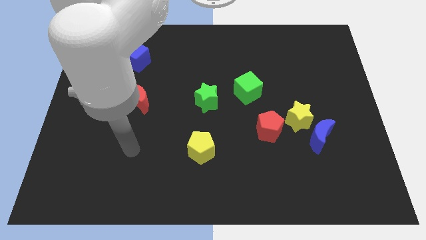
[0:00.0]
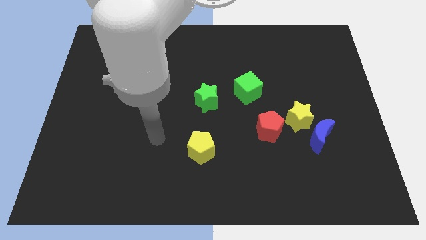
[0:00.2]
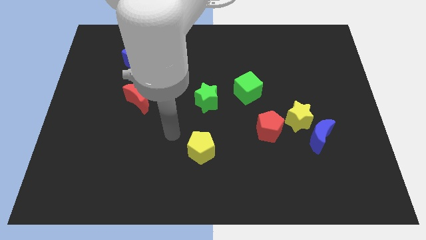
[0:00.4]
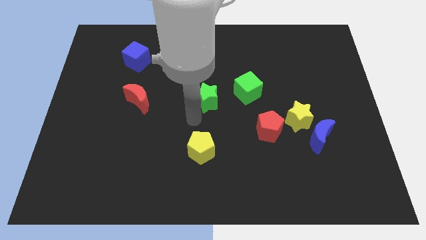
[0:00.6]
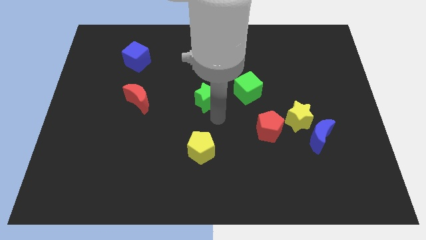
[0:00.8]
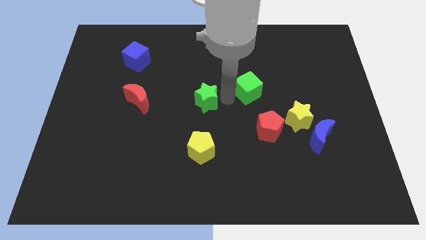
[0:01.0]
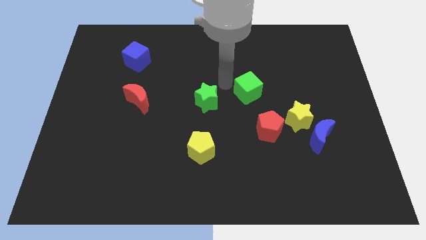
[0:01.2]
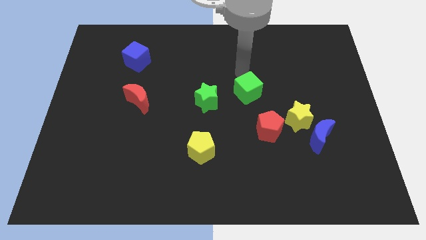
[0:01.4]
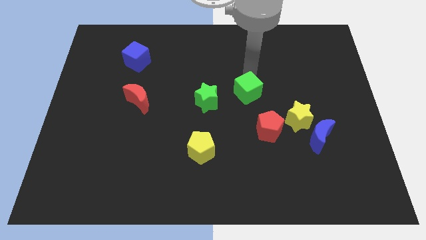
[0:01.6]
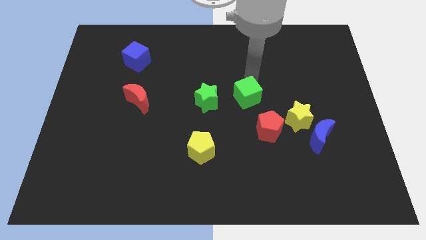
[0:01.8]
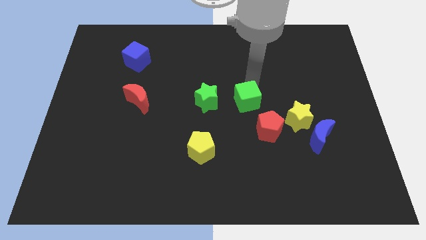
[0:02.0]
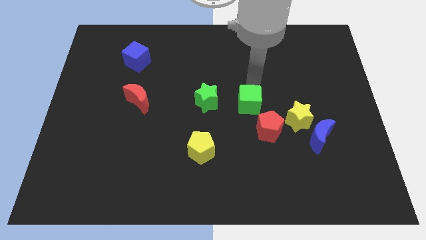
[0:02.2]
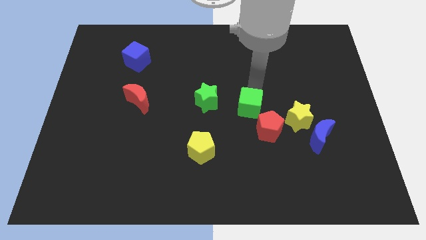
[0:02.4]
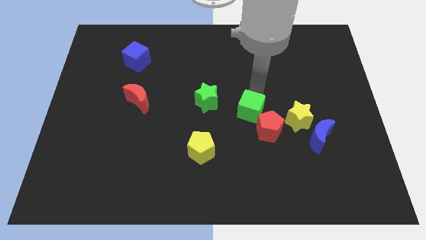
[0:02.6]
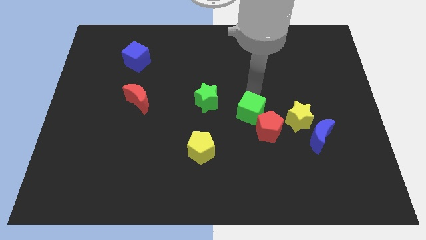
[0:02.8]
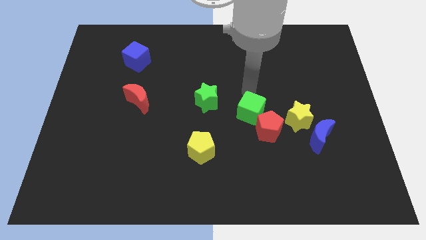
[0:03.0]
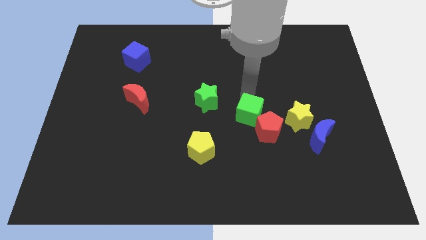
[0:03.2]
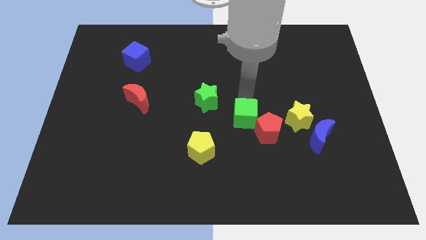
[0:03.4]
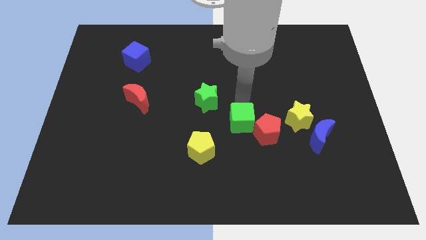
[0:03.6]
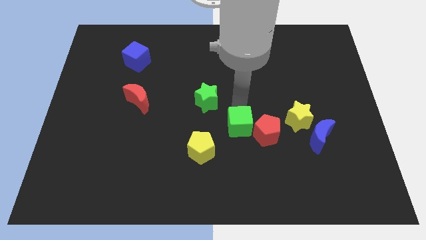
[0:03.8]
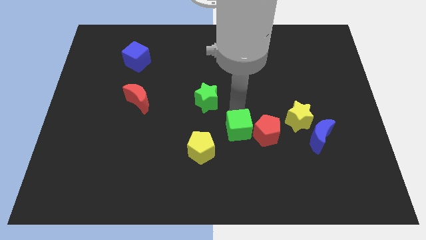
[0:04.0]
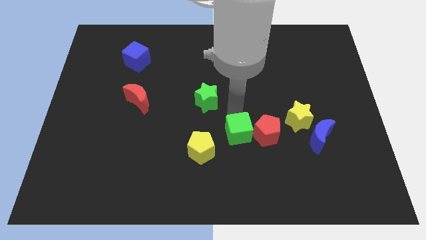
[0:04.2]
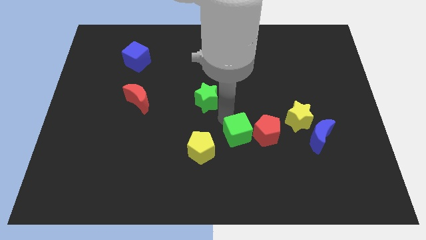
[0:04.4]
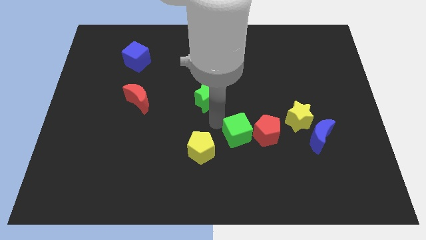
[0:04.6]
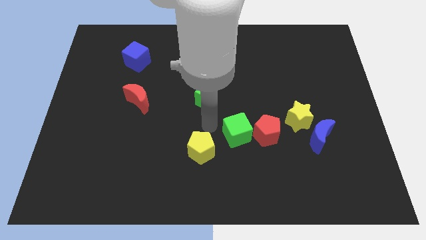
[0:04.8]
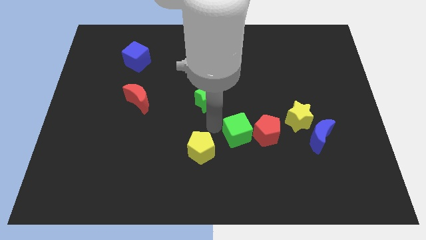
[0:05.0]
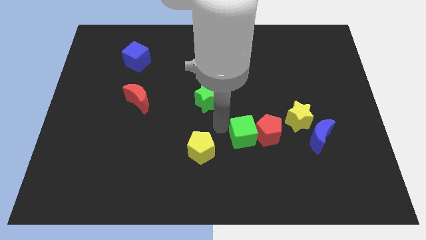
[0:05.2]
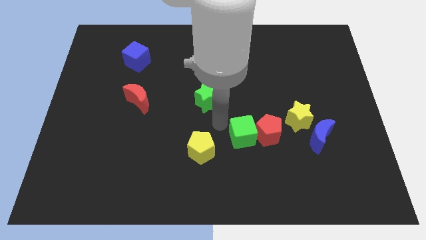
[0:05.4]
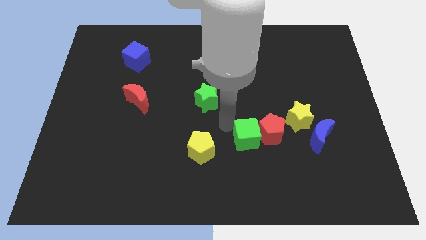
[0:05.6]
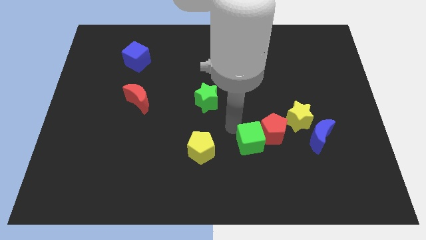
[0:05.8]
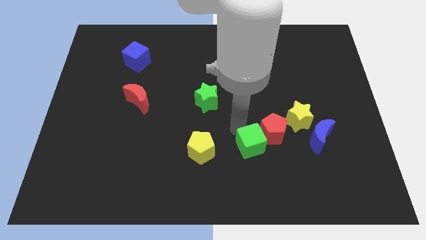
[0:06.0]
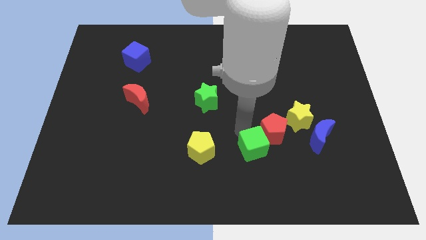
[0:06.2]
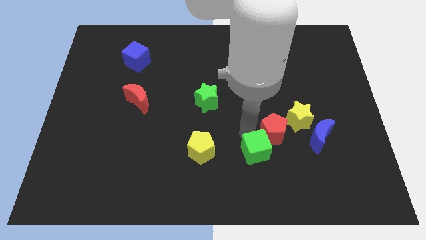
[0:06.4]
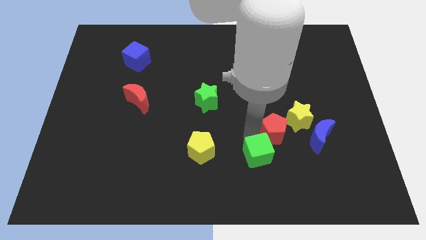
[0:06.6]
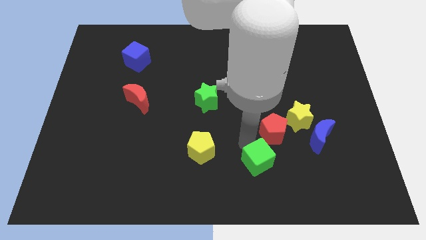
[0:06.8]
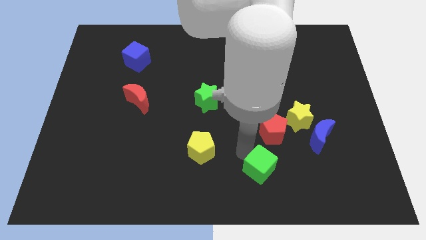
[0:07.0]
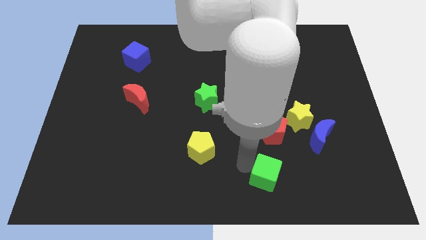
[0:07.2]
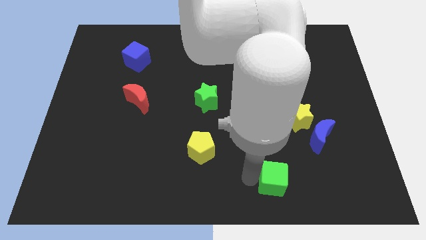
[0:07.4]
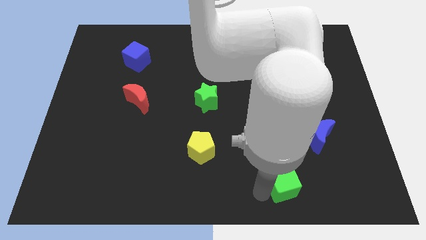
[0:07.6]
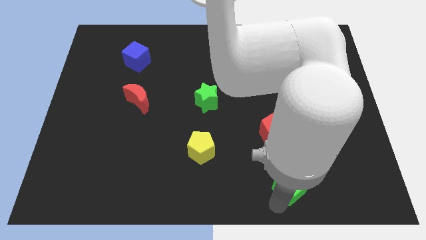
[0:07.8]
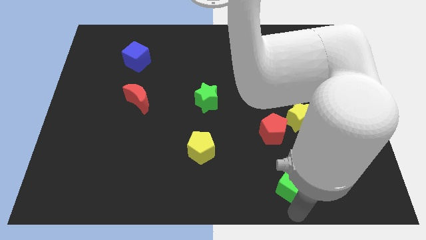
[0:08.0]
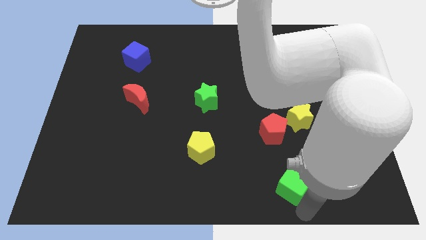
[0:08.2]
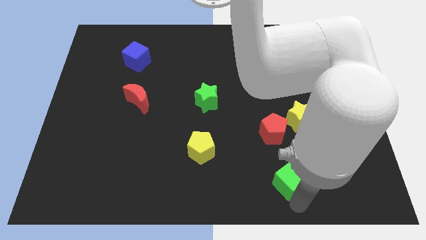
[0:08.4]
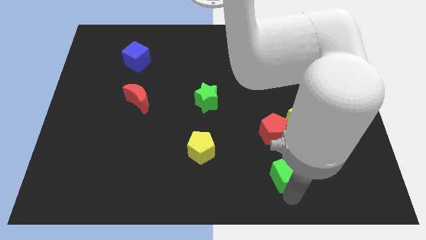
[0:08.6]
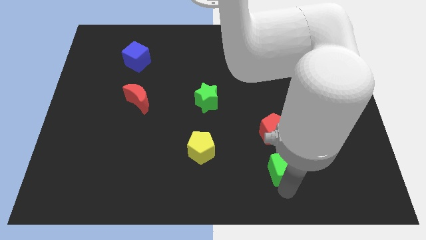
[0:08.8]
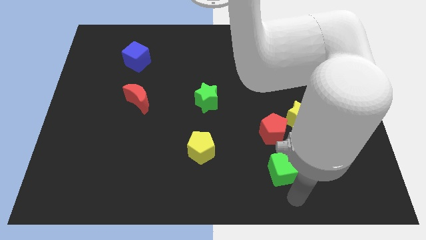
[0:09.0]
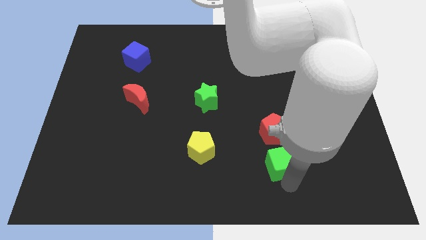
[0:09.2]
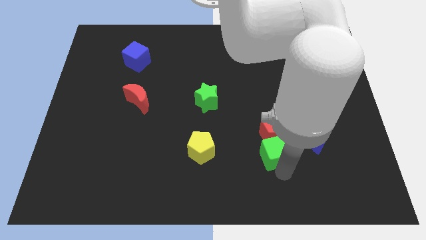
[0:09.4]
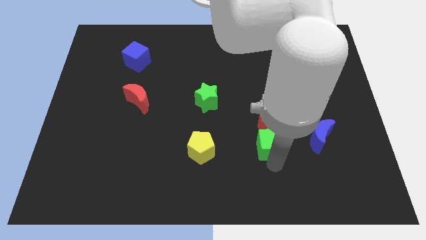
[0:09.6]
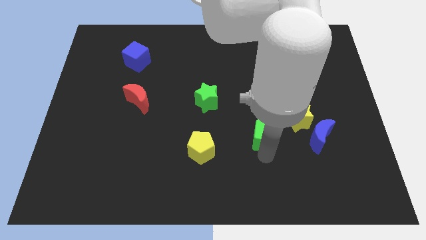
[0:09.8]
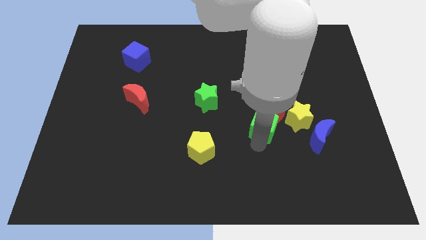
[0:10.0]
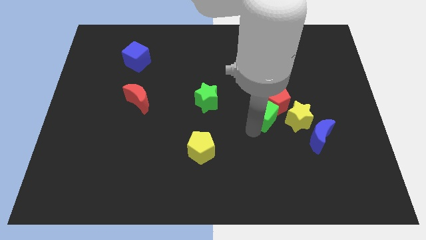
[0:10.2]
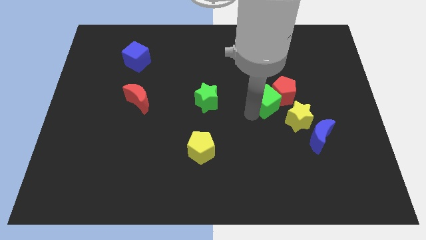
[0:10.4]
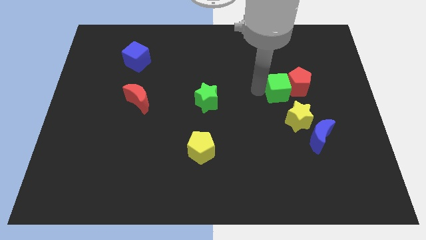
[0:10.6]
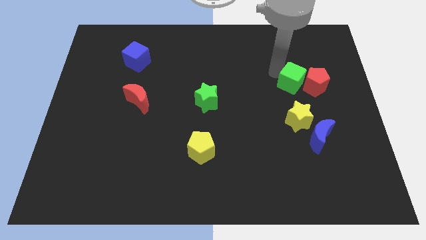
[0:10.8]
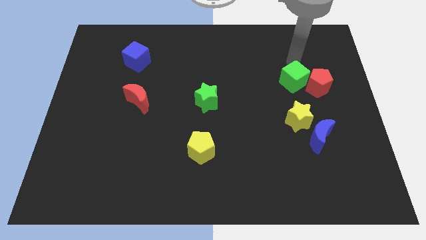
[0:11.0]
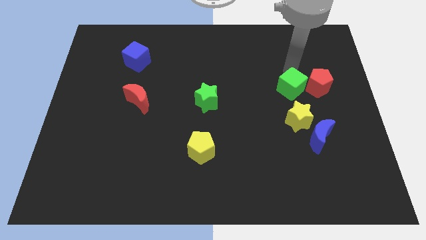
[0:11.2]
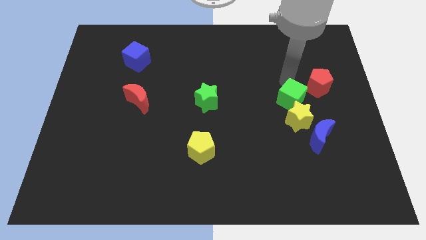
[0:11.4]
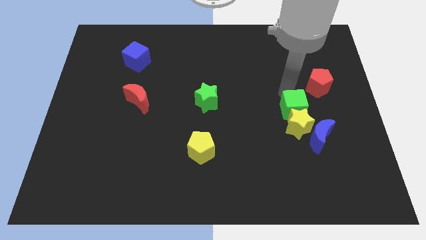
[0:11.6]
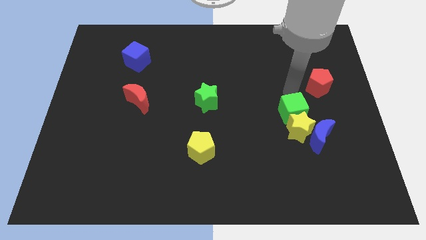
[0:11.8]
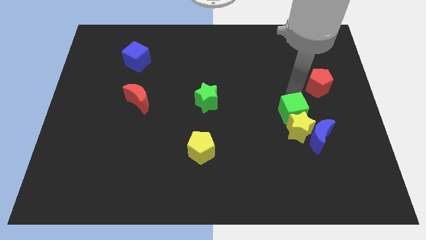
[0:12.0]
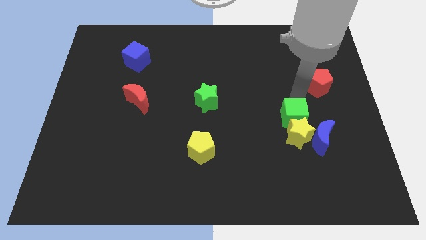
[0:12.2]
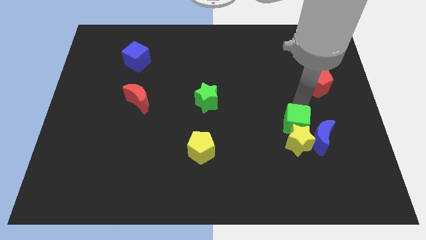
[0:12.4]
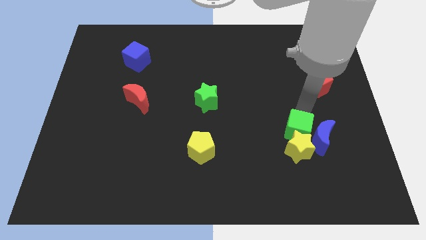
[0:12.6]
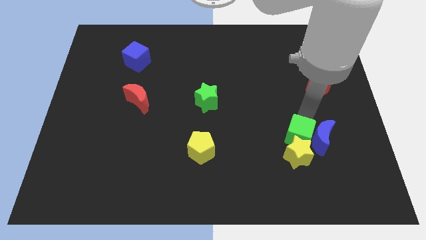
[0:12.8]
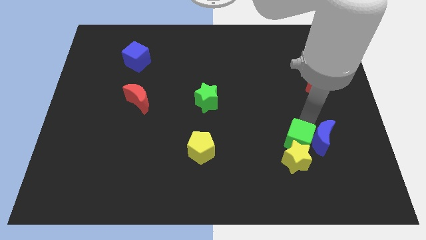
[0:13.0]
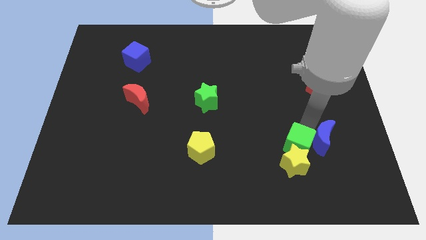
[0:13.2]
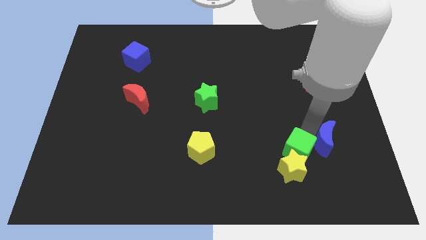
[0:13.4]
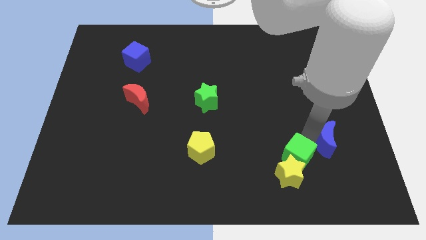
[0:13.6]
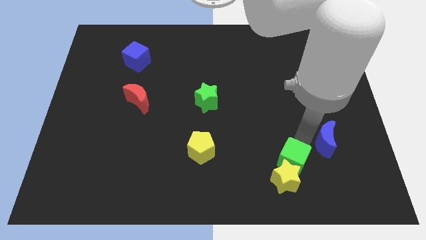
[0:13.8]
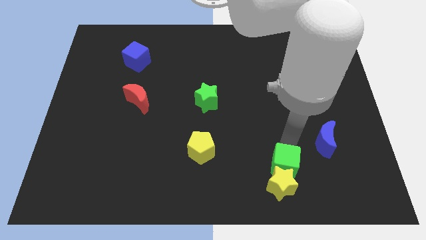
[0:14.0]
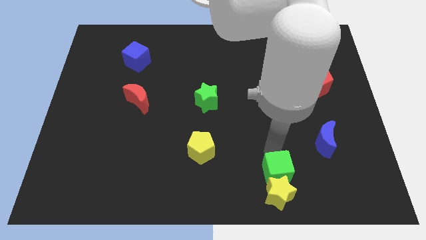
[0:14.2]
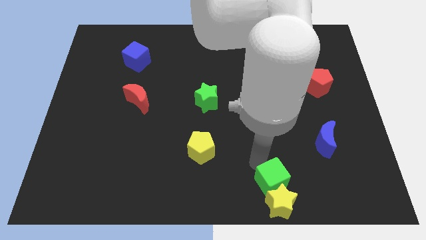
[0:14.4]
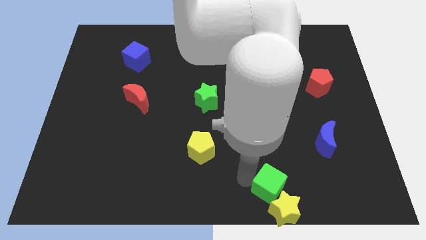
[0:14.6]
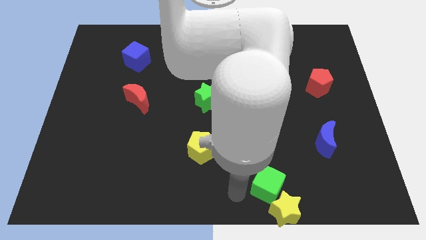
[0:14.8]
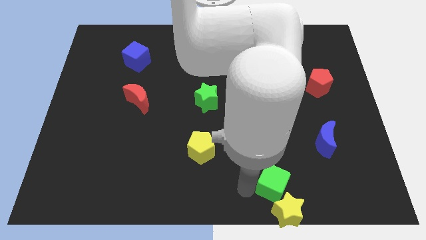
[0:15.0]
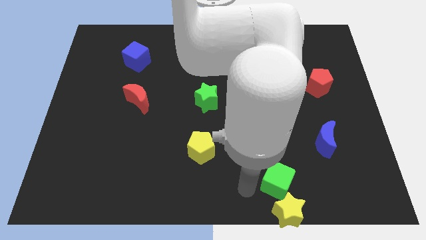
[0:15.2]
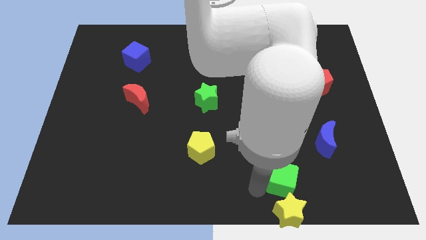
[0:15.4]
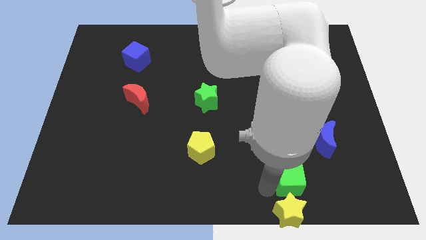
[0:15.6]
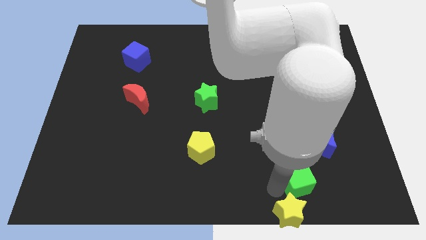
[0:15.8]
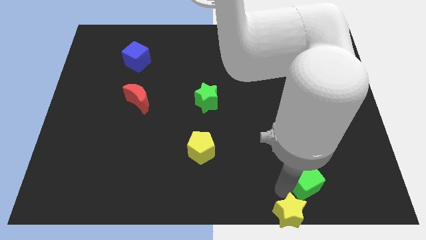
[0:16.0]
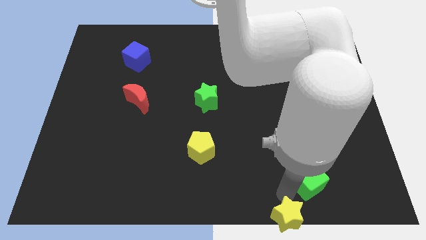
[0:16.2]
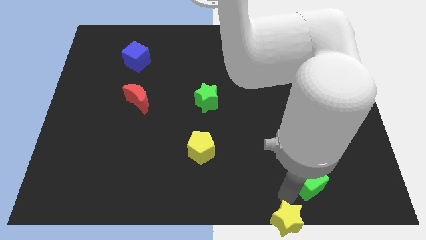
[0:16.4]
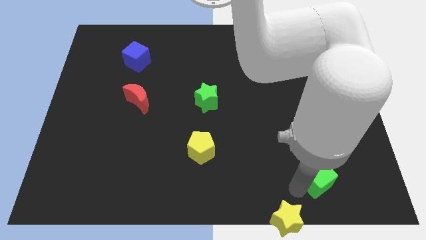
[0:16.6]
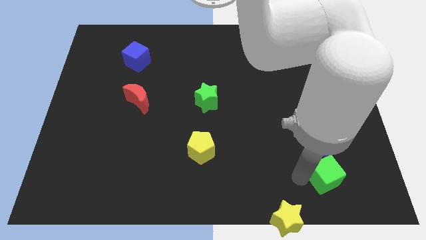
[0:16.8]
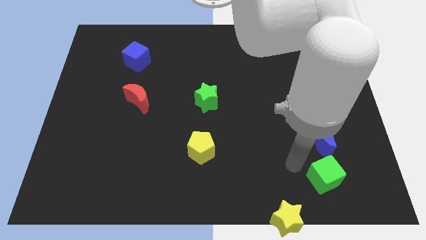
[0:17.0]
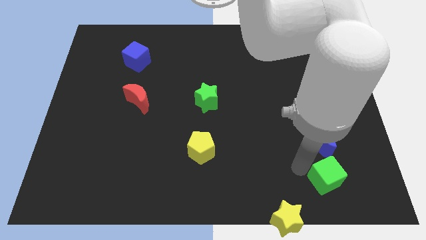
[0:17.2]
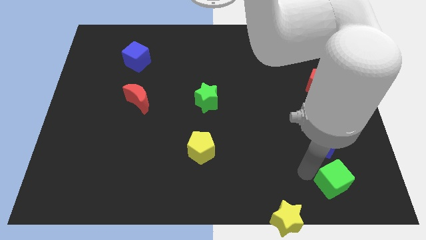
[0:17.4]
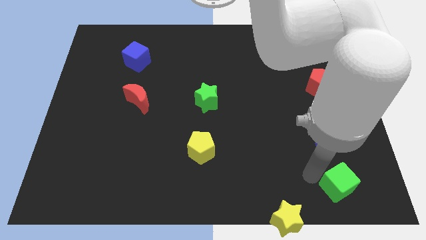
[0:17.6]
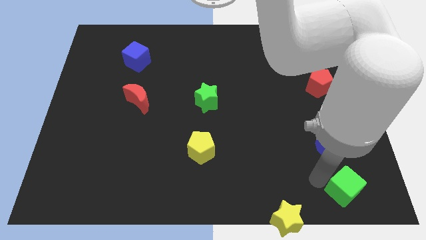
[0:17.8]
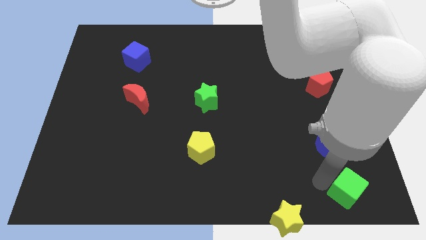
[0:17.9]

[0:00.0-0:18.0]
slide the green cube to the lower right corner
